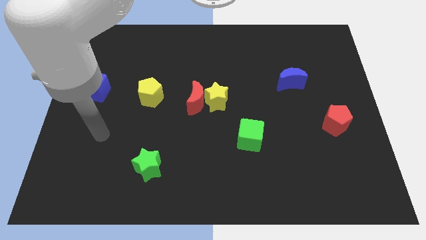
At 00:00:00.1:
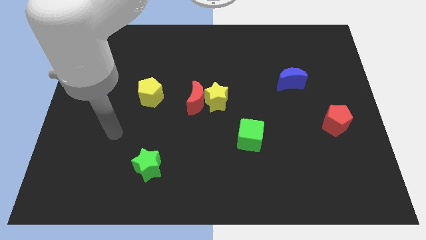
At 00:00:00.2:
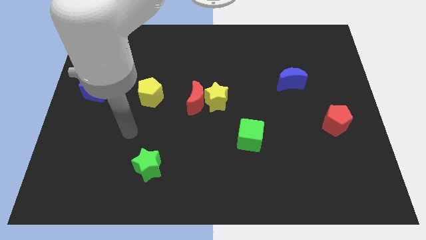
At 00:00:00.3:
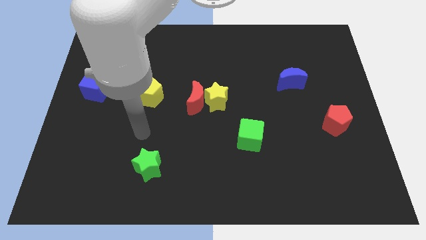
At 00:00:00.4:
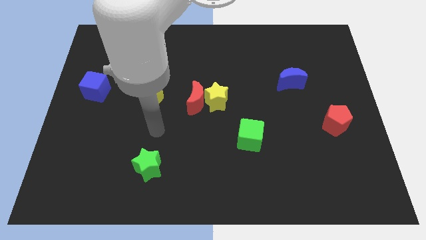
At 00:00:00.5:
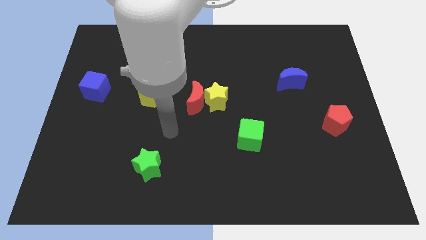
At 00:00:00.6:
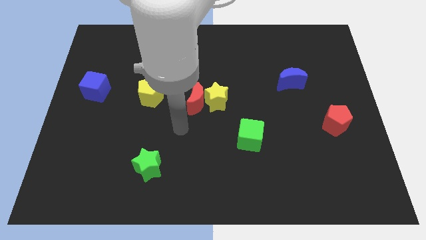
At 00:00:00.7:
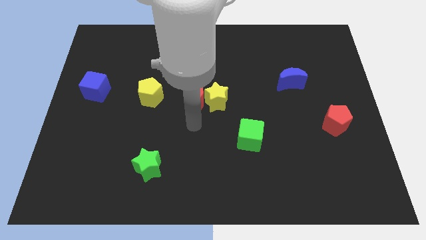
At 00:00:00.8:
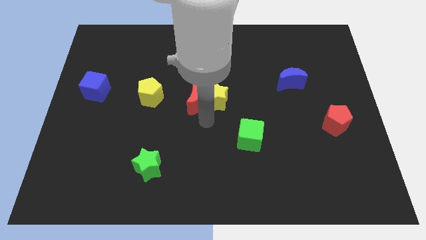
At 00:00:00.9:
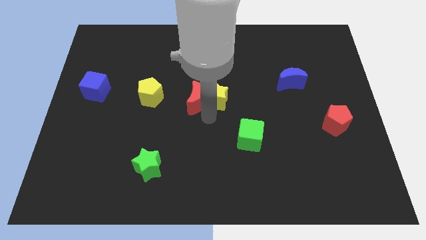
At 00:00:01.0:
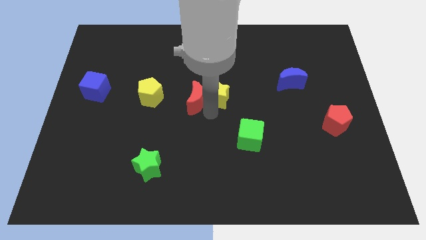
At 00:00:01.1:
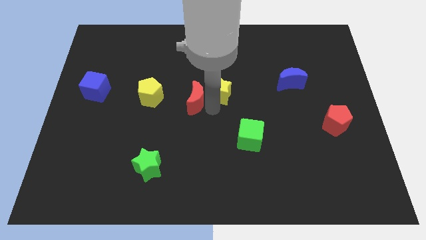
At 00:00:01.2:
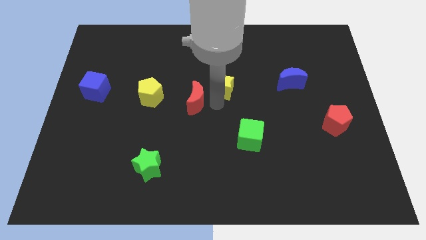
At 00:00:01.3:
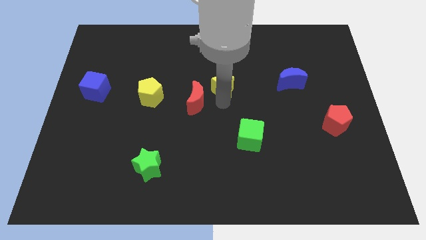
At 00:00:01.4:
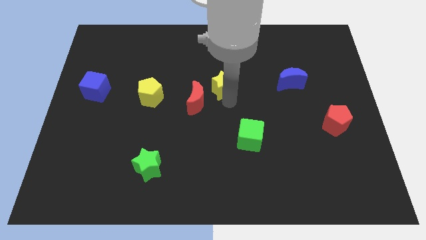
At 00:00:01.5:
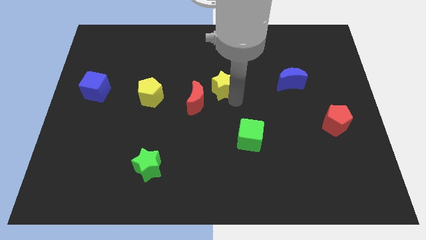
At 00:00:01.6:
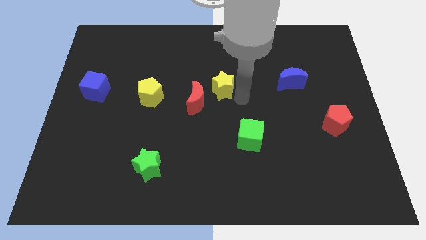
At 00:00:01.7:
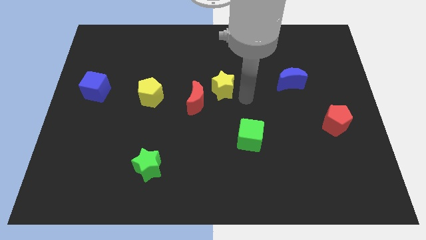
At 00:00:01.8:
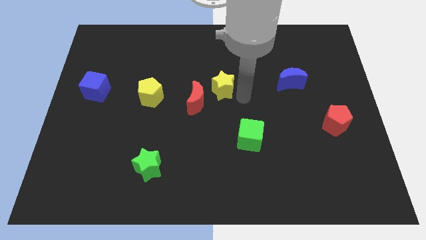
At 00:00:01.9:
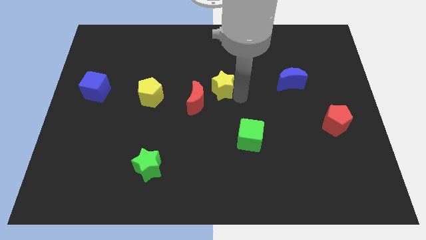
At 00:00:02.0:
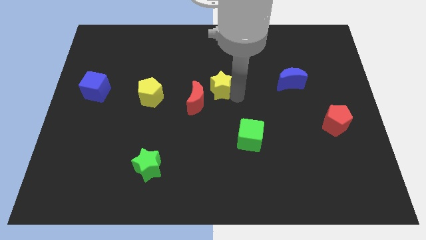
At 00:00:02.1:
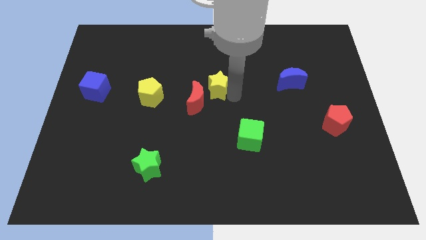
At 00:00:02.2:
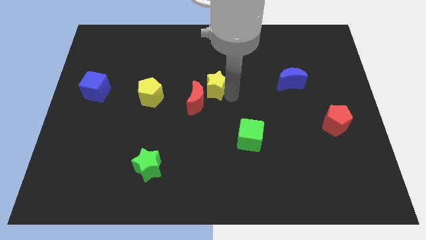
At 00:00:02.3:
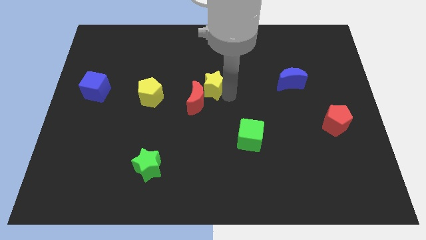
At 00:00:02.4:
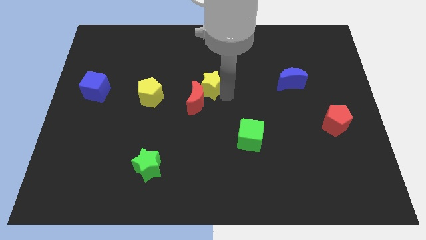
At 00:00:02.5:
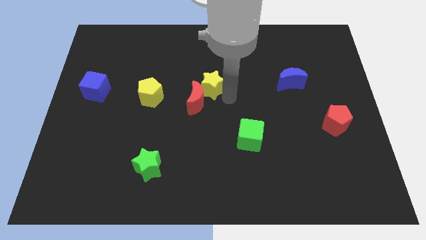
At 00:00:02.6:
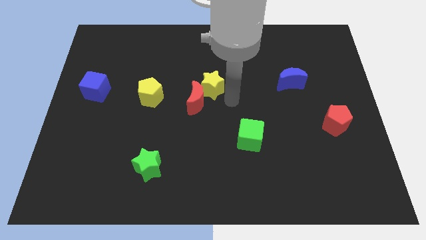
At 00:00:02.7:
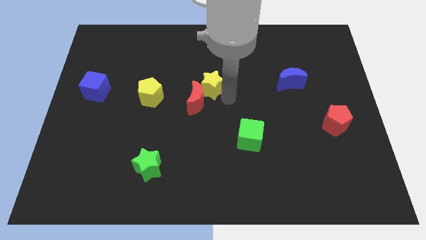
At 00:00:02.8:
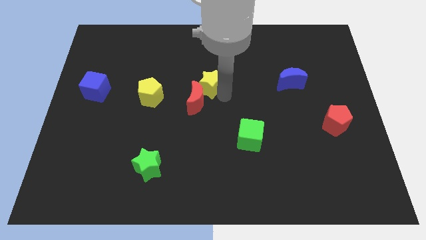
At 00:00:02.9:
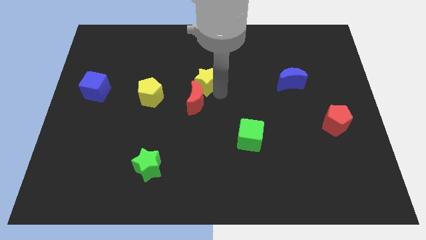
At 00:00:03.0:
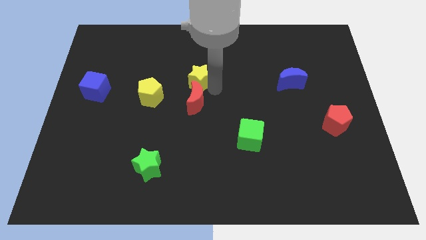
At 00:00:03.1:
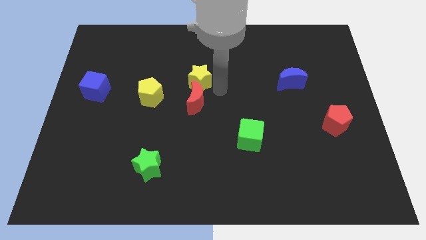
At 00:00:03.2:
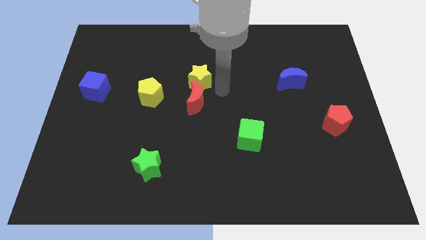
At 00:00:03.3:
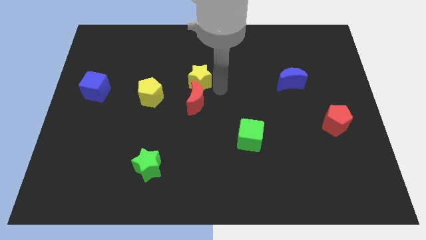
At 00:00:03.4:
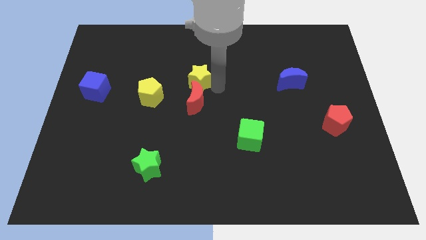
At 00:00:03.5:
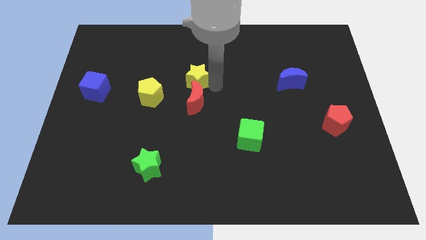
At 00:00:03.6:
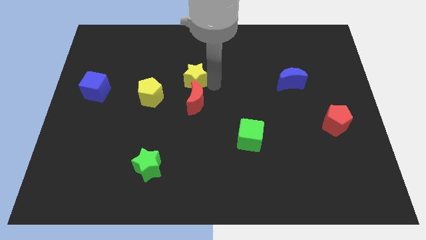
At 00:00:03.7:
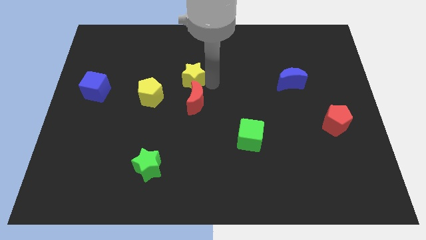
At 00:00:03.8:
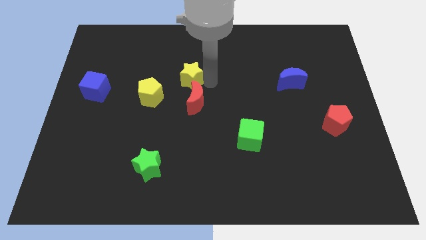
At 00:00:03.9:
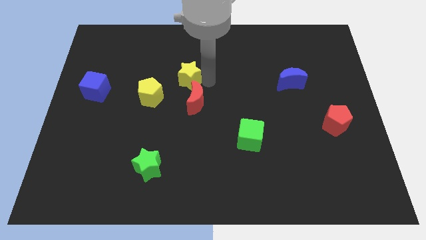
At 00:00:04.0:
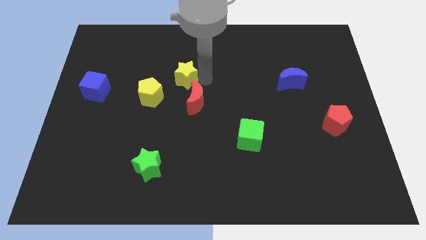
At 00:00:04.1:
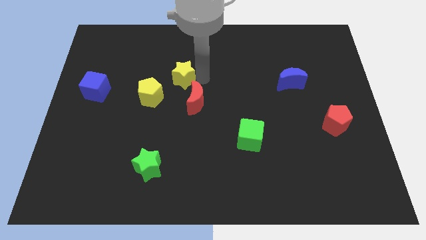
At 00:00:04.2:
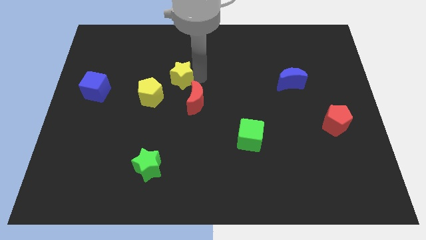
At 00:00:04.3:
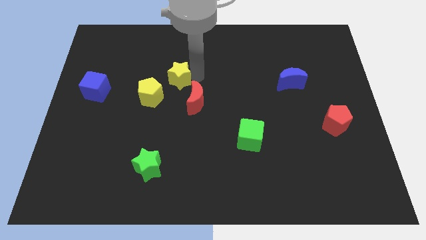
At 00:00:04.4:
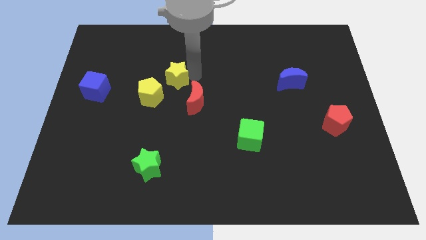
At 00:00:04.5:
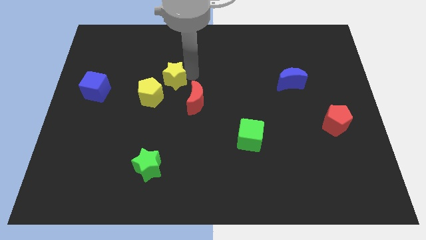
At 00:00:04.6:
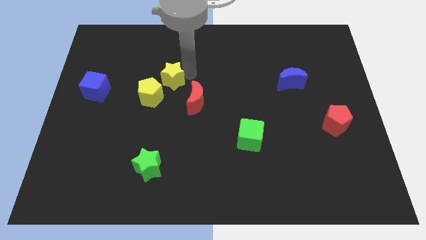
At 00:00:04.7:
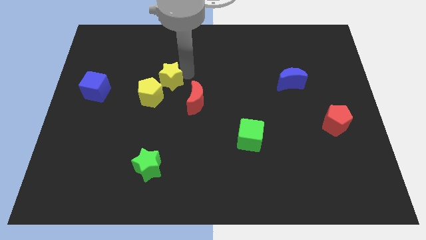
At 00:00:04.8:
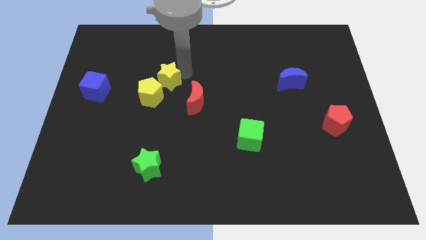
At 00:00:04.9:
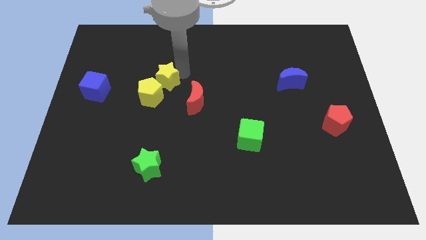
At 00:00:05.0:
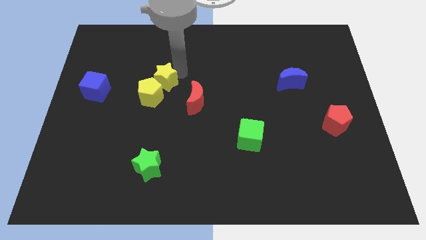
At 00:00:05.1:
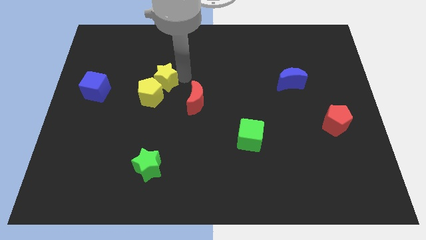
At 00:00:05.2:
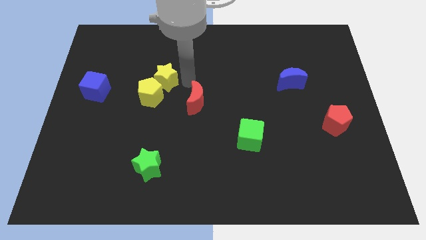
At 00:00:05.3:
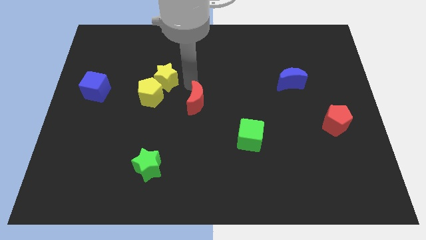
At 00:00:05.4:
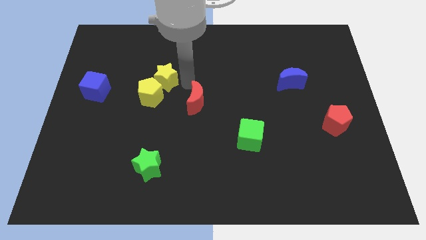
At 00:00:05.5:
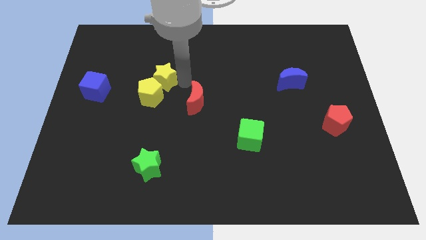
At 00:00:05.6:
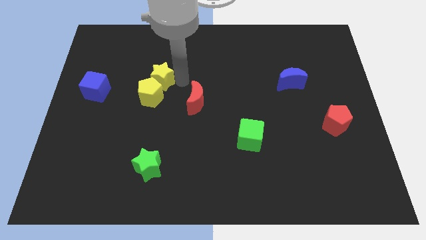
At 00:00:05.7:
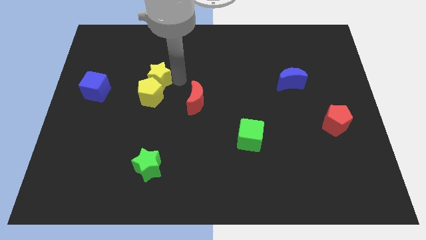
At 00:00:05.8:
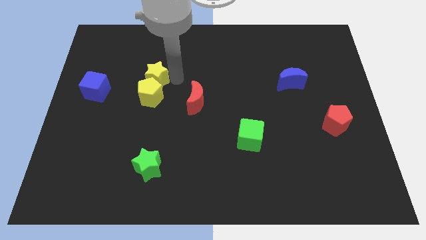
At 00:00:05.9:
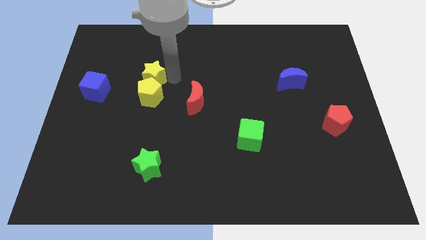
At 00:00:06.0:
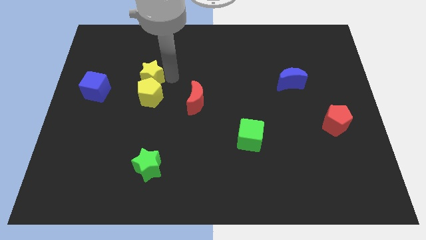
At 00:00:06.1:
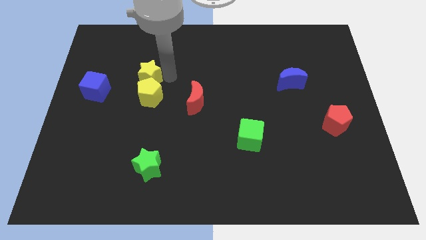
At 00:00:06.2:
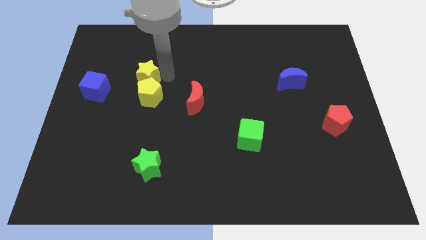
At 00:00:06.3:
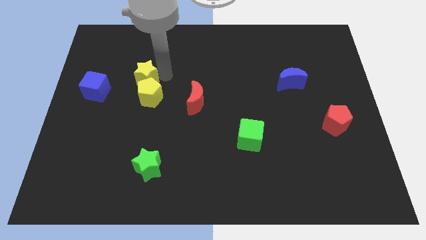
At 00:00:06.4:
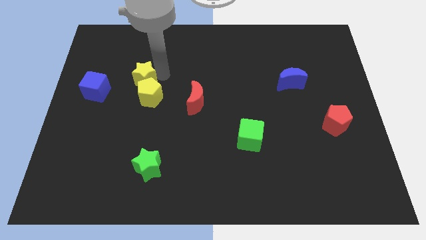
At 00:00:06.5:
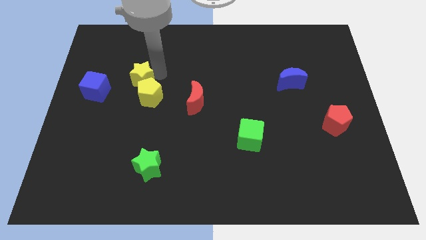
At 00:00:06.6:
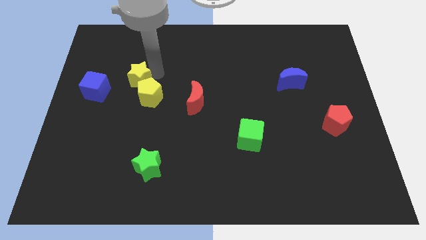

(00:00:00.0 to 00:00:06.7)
slide the yellow star diagonally up and to the right of the blue cube

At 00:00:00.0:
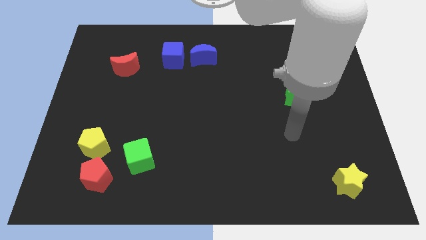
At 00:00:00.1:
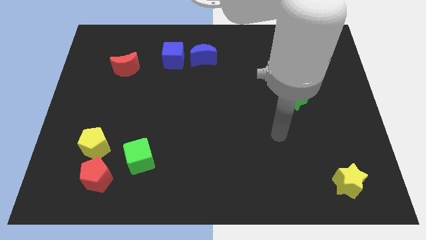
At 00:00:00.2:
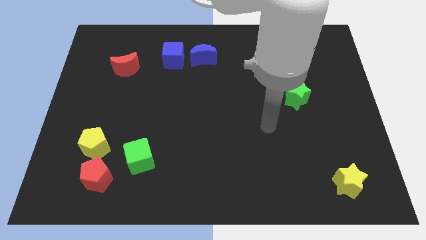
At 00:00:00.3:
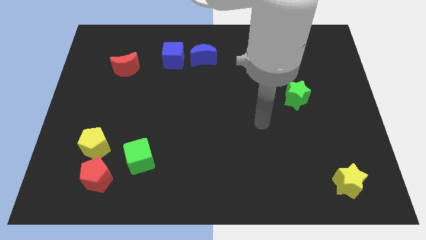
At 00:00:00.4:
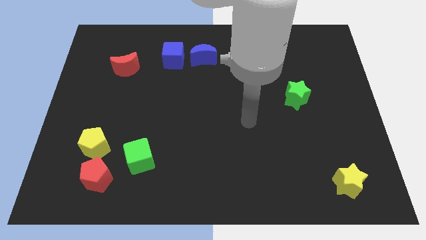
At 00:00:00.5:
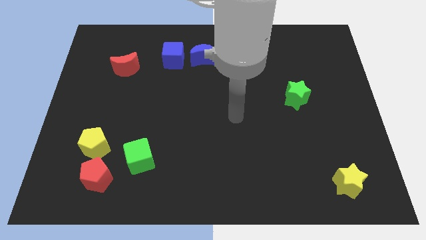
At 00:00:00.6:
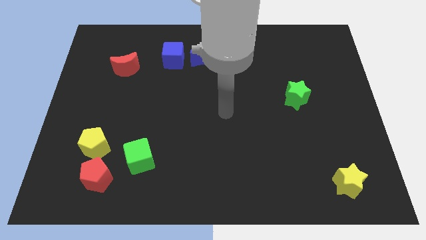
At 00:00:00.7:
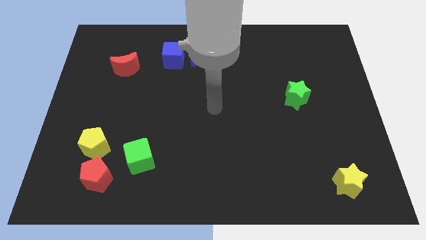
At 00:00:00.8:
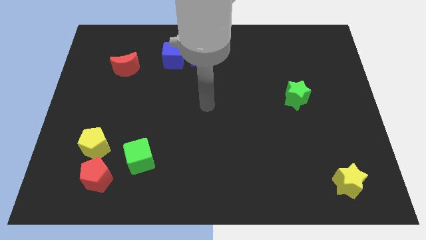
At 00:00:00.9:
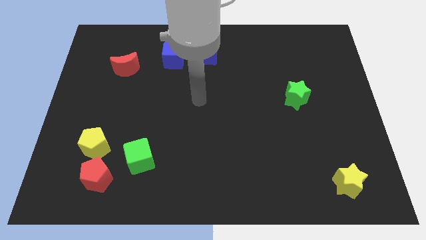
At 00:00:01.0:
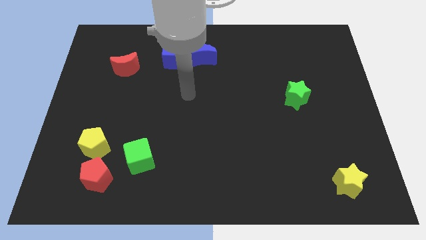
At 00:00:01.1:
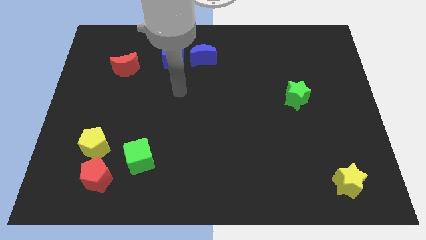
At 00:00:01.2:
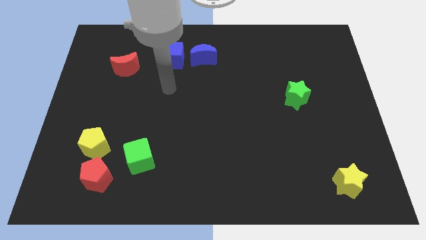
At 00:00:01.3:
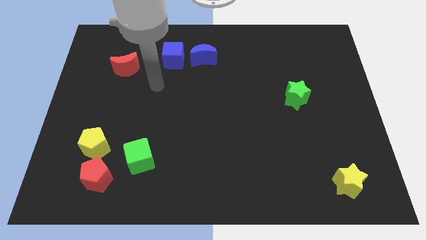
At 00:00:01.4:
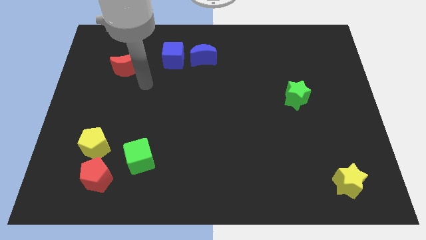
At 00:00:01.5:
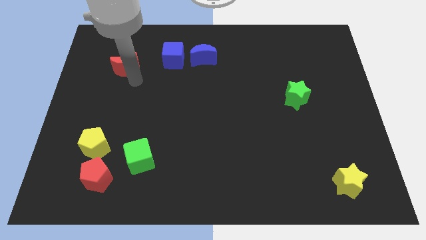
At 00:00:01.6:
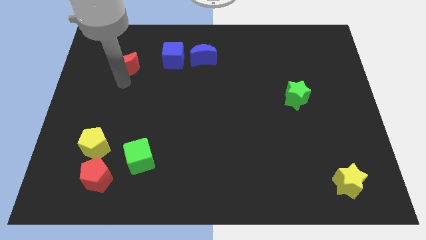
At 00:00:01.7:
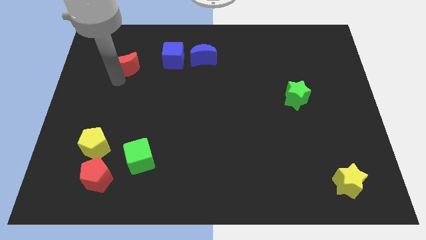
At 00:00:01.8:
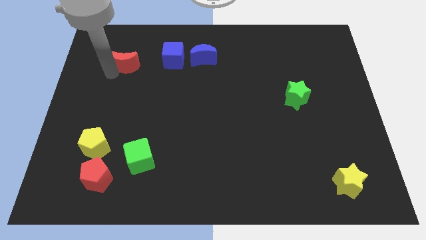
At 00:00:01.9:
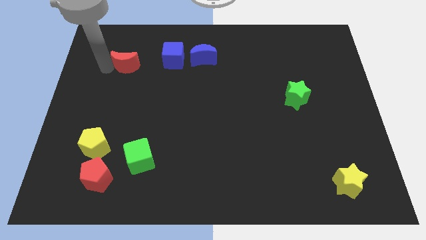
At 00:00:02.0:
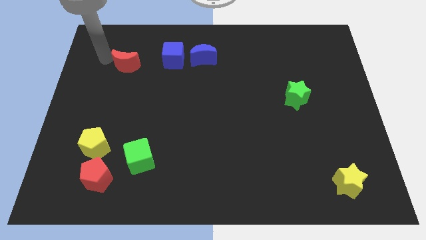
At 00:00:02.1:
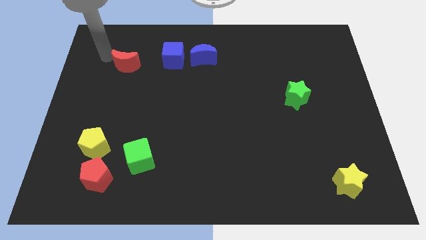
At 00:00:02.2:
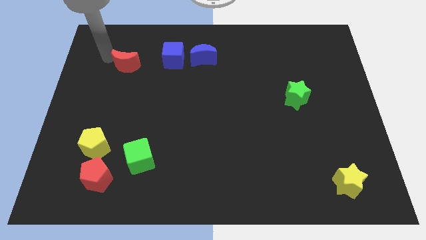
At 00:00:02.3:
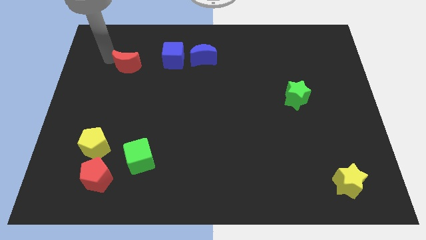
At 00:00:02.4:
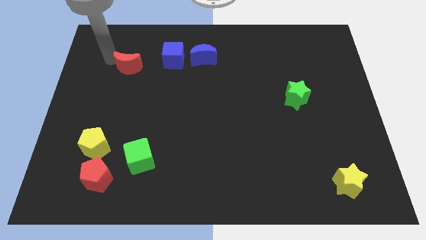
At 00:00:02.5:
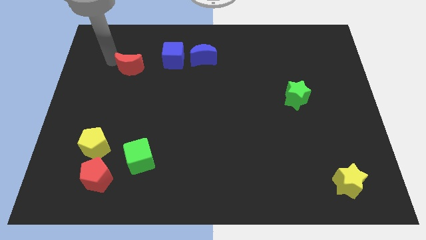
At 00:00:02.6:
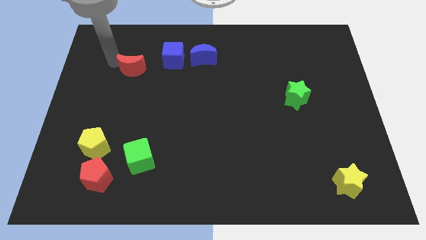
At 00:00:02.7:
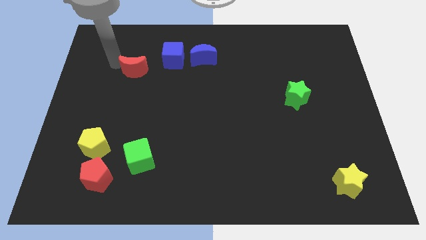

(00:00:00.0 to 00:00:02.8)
put the red moon to the bottom left side of the blue cube
